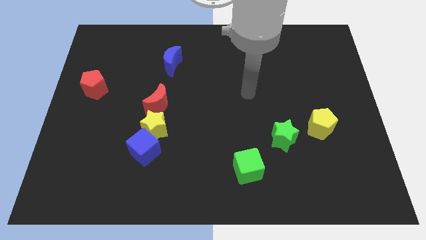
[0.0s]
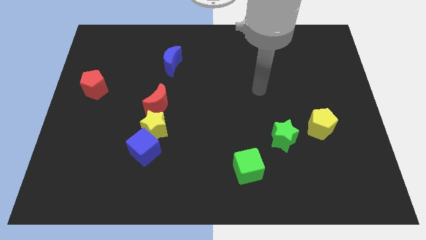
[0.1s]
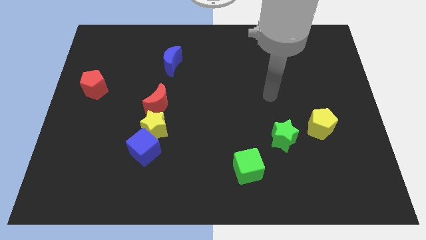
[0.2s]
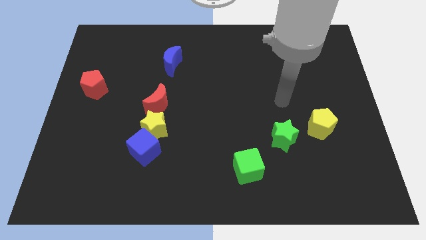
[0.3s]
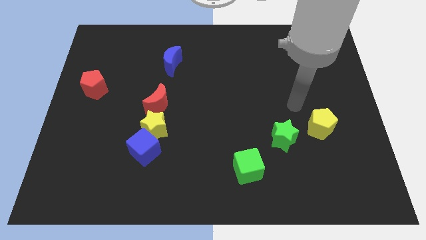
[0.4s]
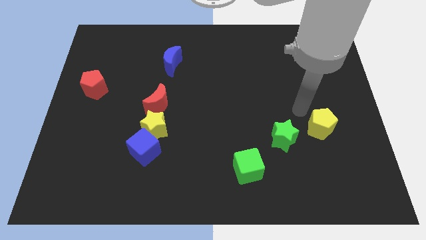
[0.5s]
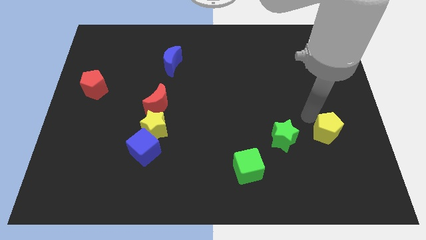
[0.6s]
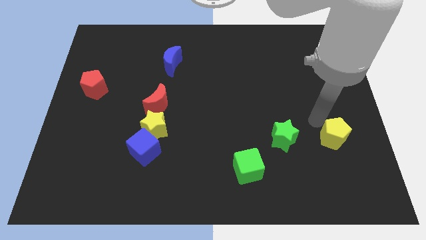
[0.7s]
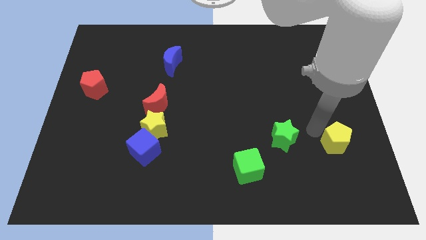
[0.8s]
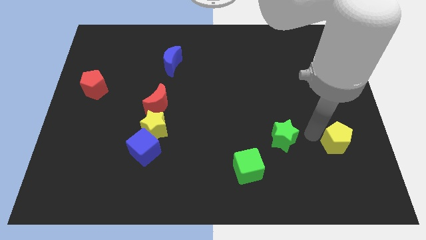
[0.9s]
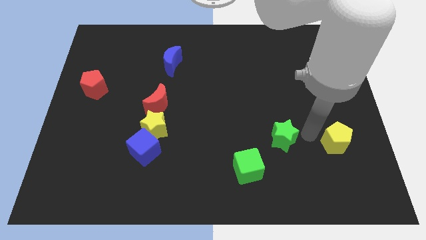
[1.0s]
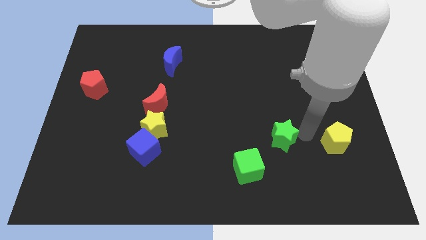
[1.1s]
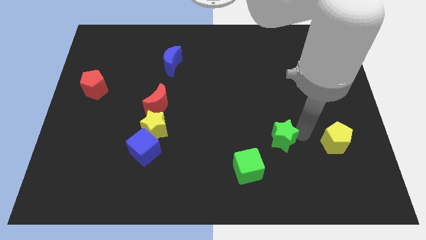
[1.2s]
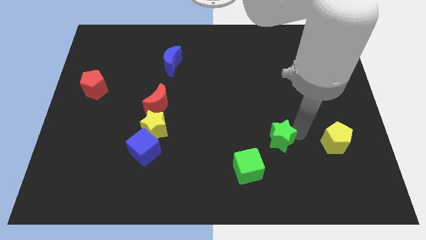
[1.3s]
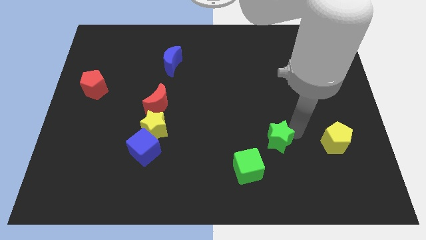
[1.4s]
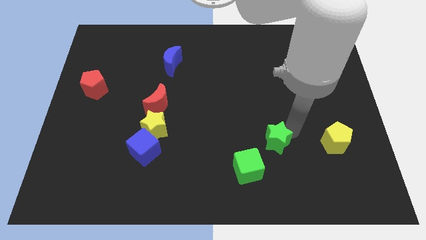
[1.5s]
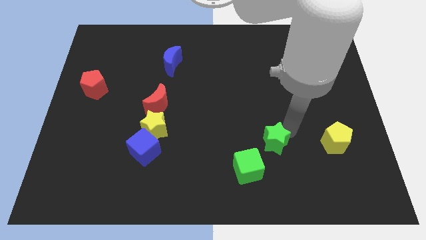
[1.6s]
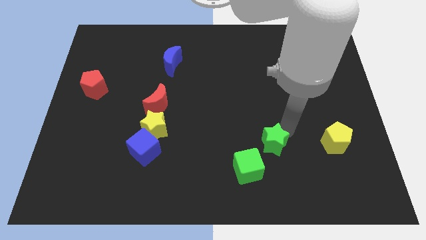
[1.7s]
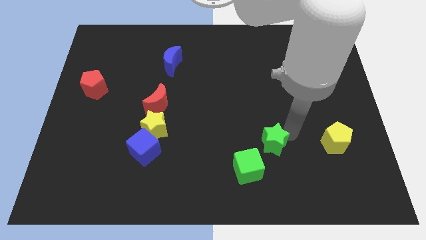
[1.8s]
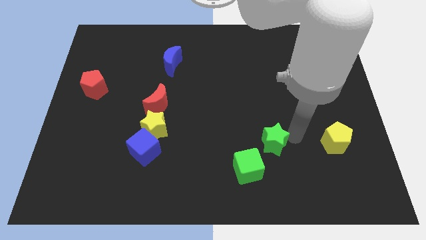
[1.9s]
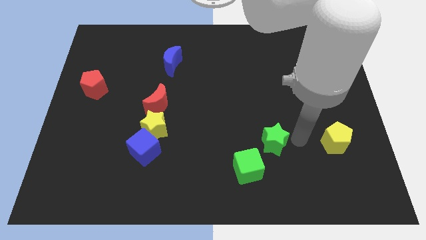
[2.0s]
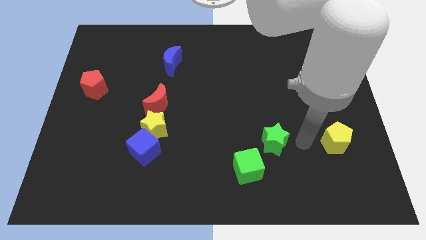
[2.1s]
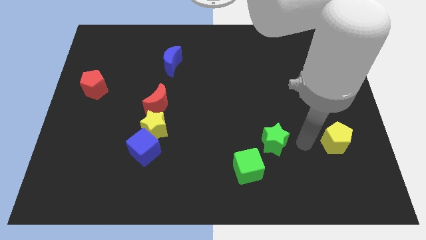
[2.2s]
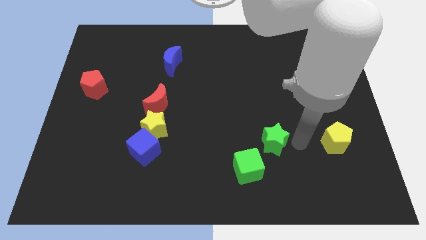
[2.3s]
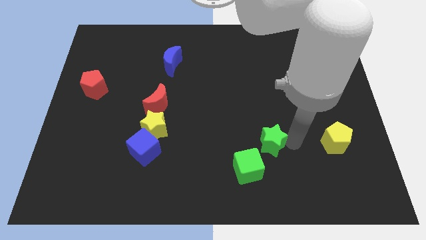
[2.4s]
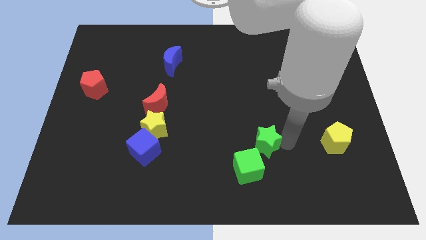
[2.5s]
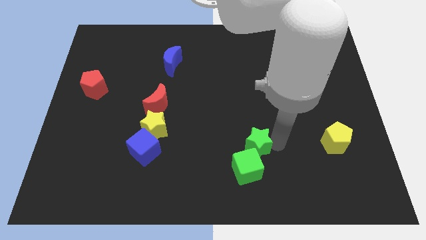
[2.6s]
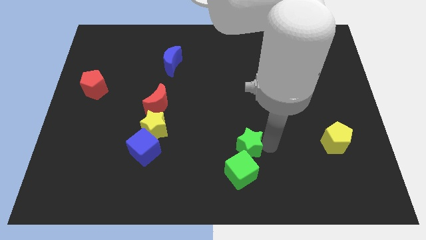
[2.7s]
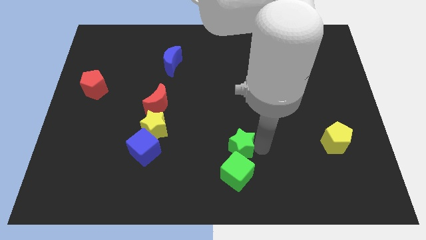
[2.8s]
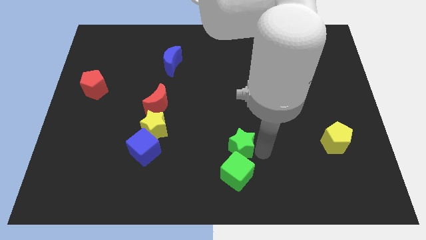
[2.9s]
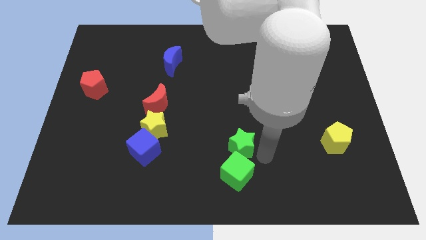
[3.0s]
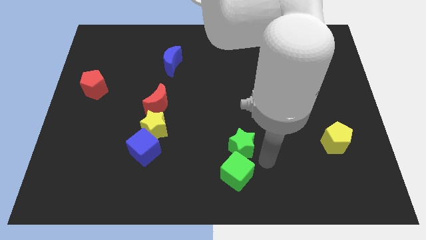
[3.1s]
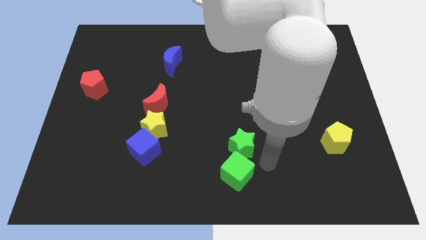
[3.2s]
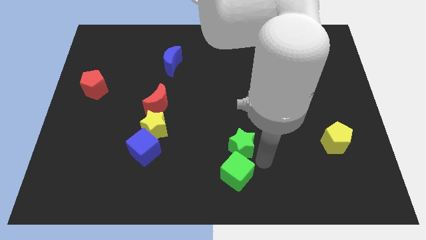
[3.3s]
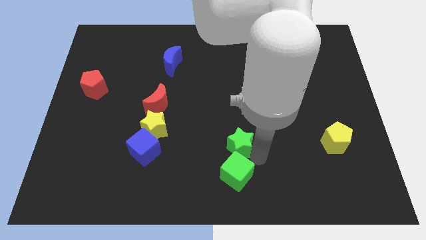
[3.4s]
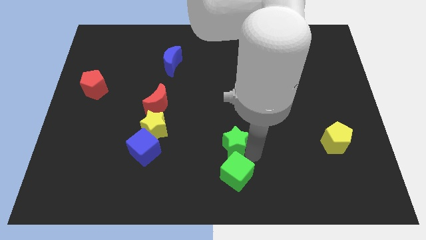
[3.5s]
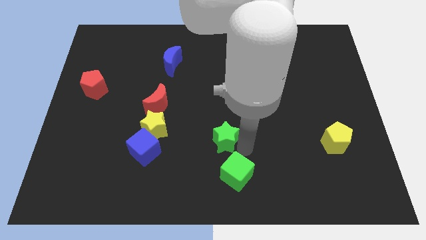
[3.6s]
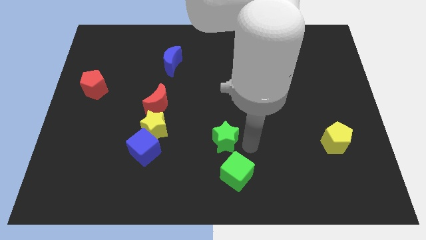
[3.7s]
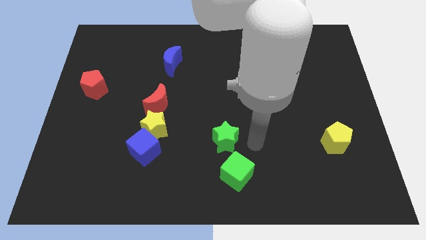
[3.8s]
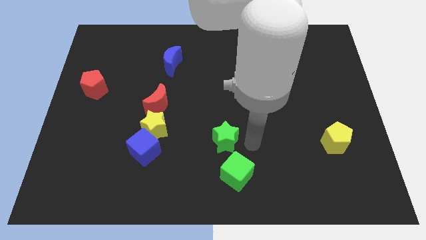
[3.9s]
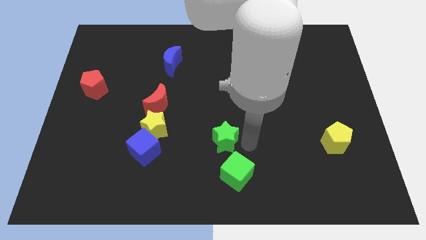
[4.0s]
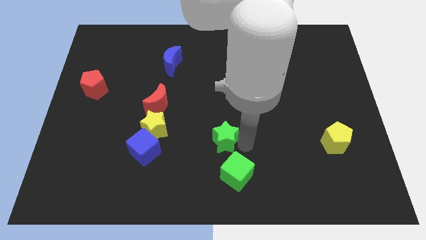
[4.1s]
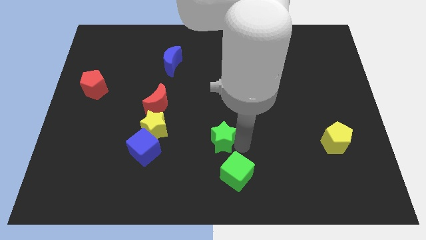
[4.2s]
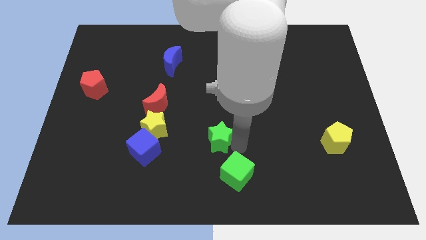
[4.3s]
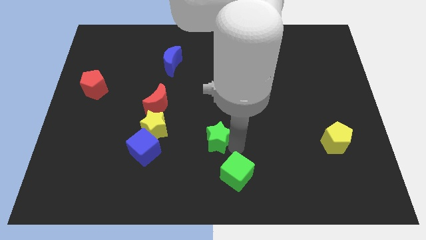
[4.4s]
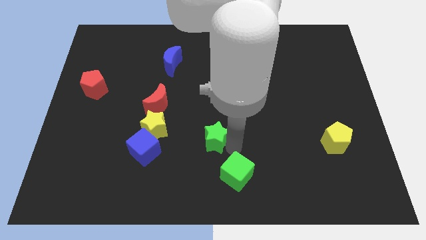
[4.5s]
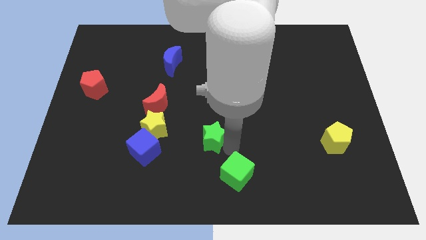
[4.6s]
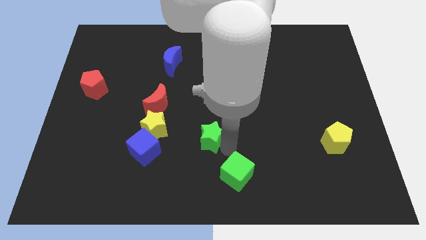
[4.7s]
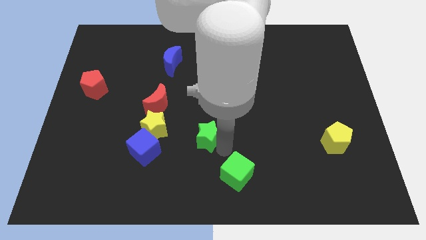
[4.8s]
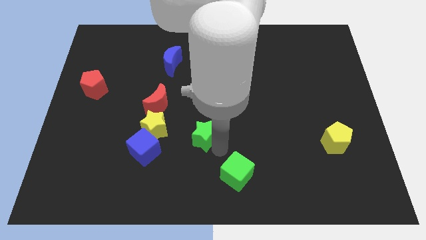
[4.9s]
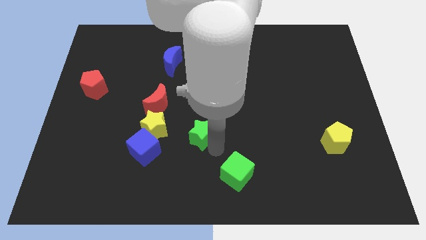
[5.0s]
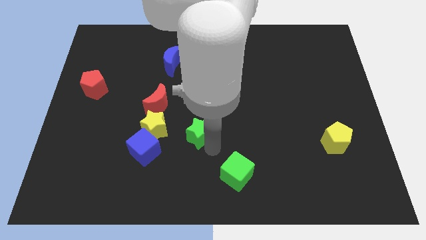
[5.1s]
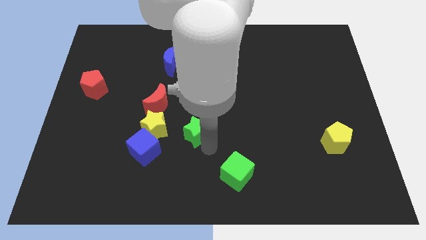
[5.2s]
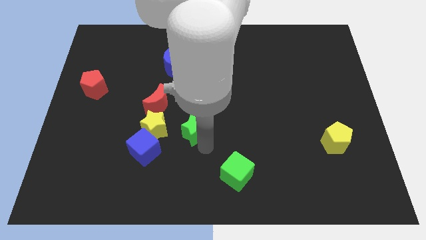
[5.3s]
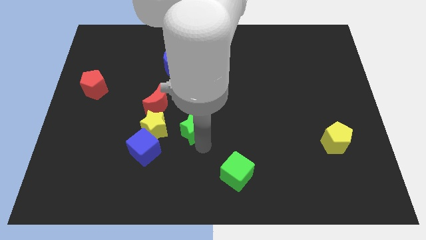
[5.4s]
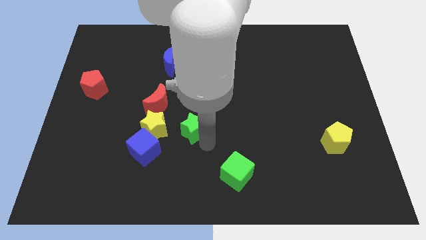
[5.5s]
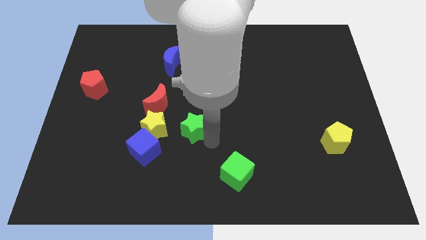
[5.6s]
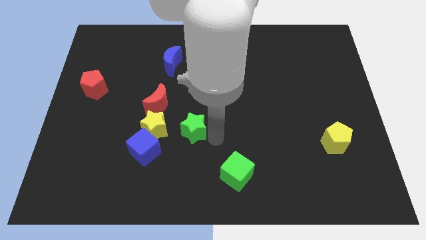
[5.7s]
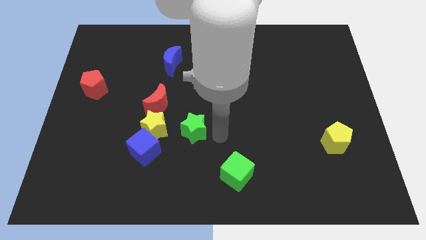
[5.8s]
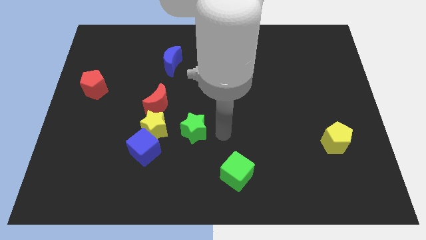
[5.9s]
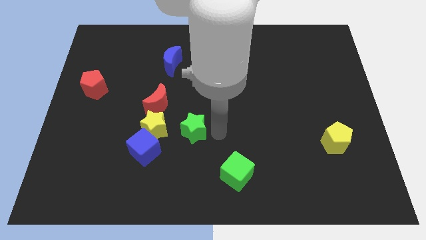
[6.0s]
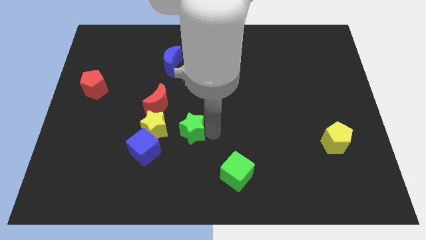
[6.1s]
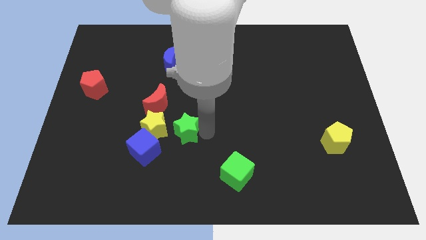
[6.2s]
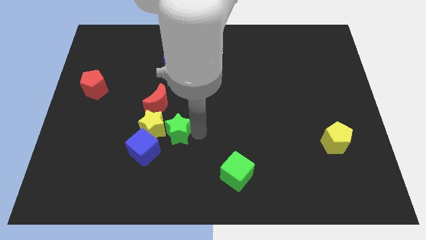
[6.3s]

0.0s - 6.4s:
put the green star towards the yellow star

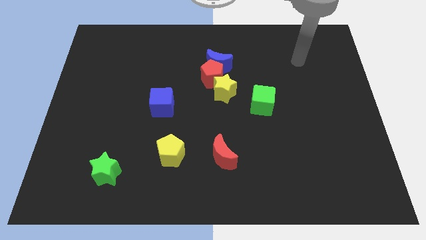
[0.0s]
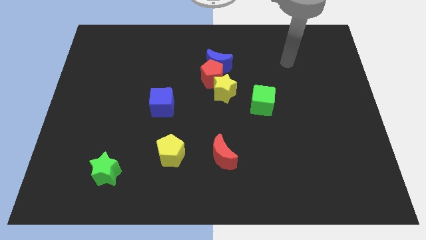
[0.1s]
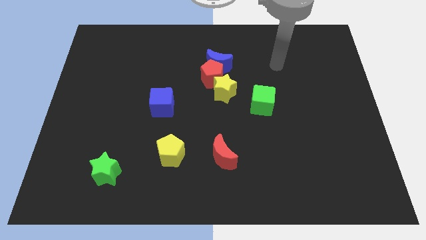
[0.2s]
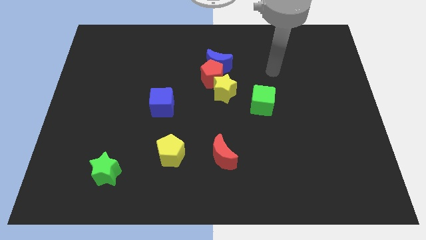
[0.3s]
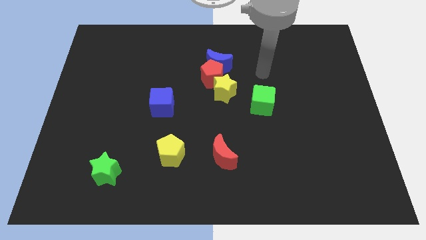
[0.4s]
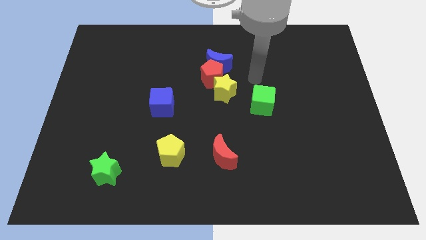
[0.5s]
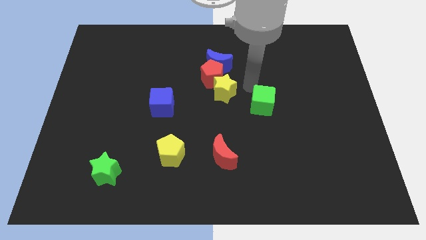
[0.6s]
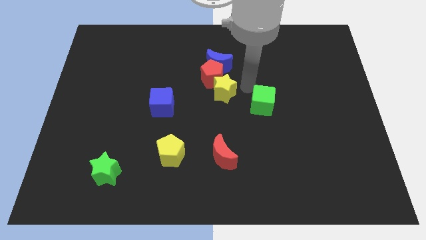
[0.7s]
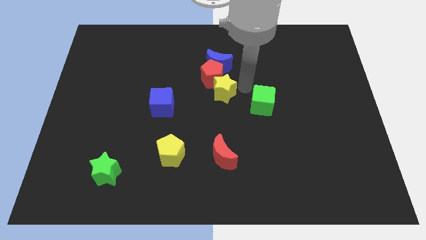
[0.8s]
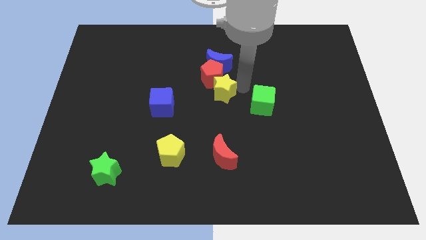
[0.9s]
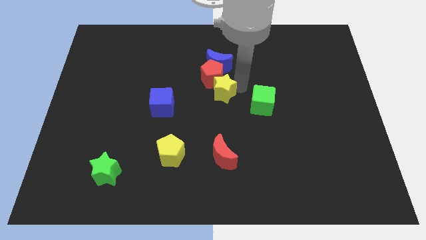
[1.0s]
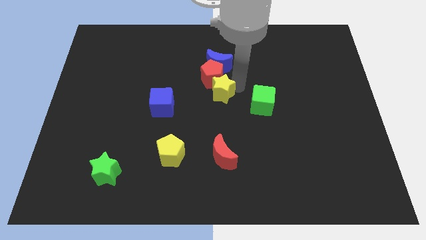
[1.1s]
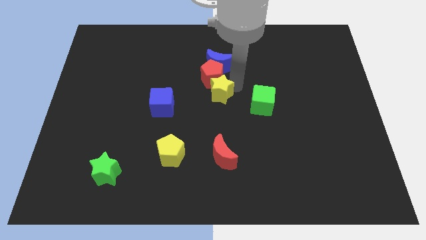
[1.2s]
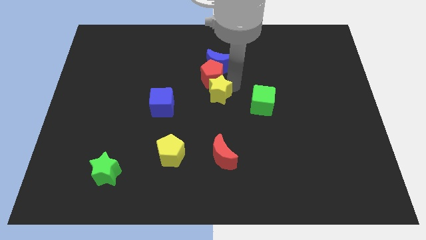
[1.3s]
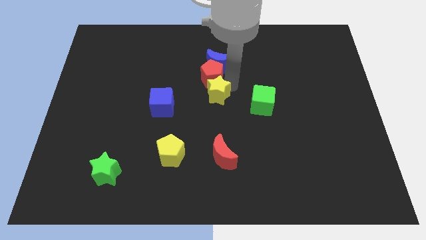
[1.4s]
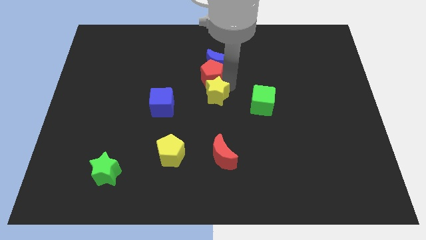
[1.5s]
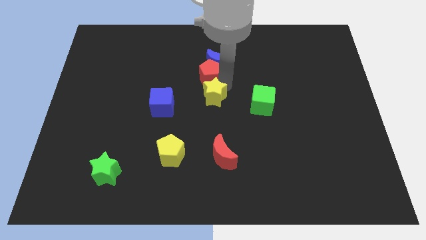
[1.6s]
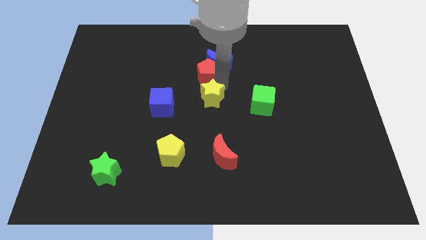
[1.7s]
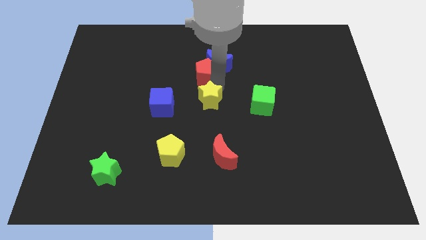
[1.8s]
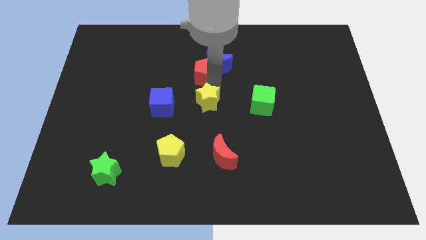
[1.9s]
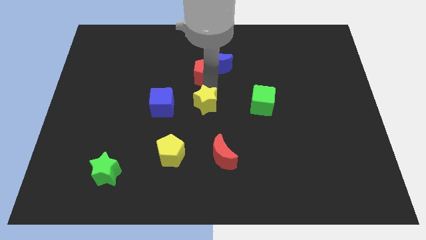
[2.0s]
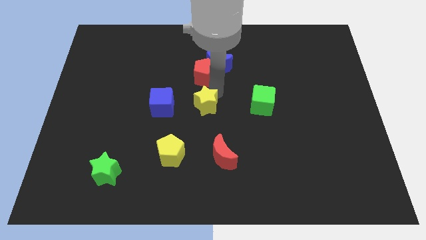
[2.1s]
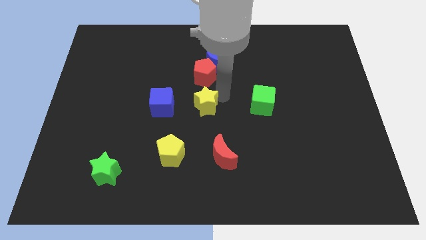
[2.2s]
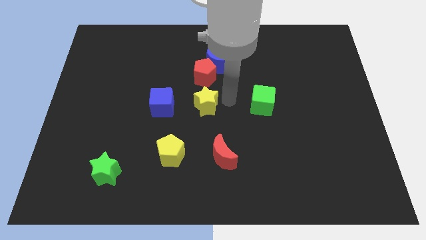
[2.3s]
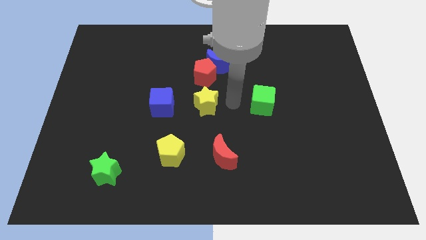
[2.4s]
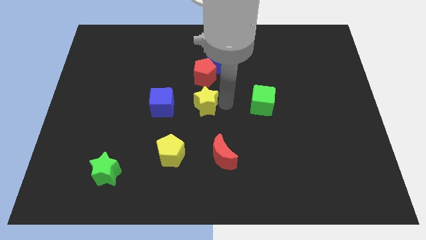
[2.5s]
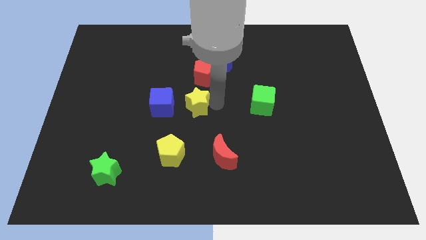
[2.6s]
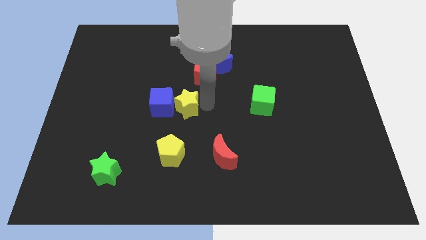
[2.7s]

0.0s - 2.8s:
put the yellow star towards the blue cube
